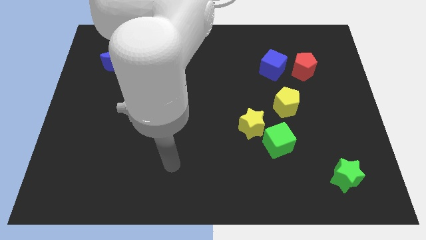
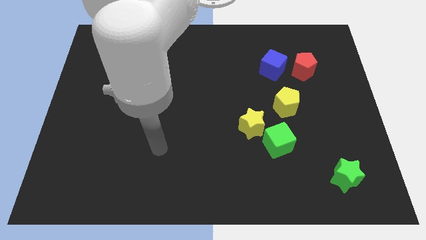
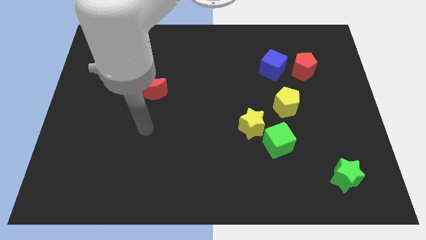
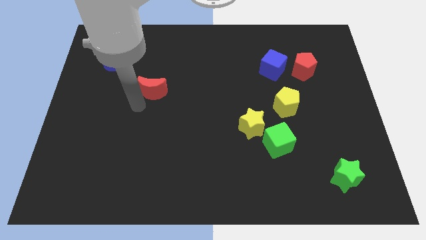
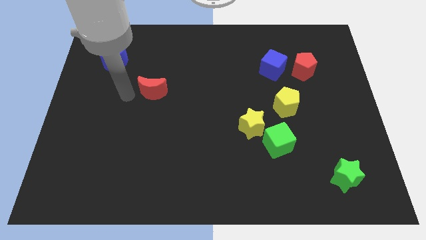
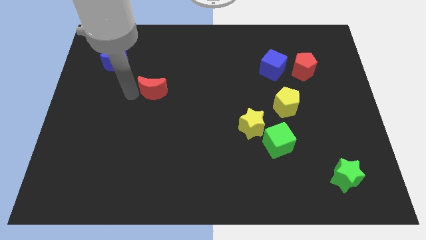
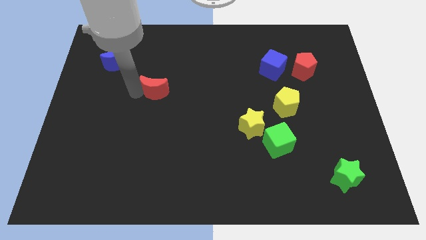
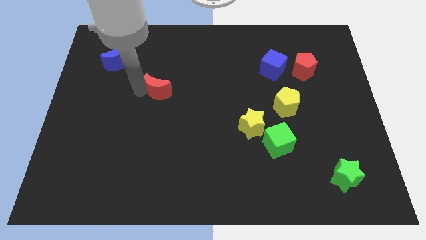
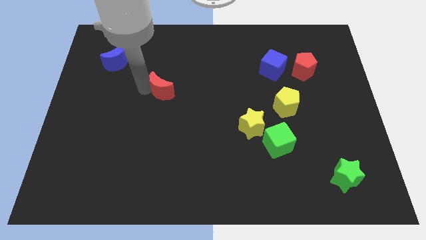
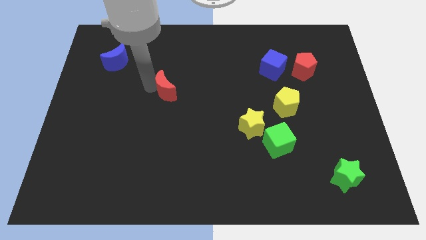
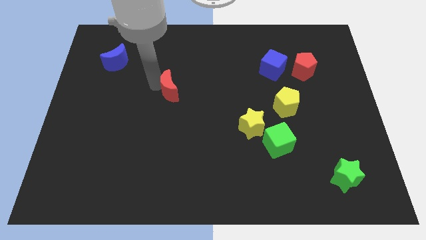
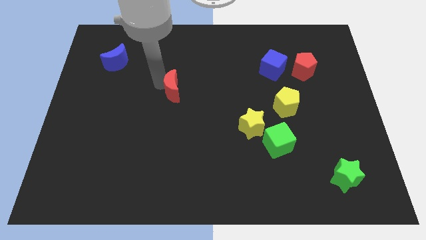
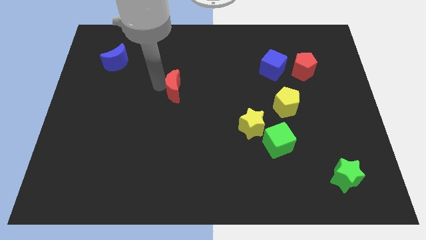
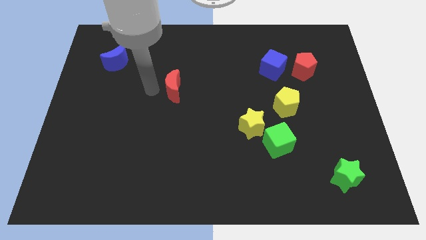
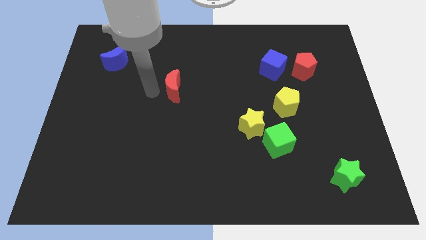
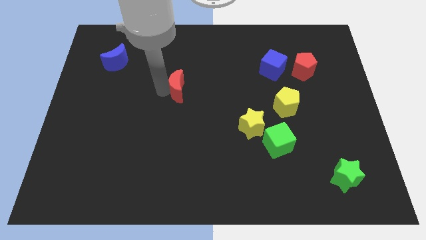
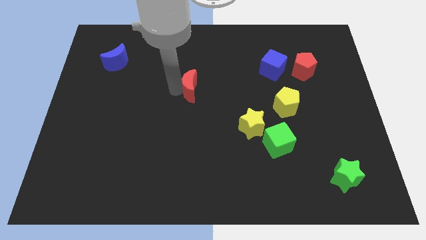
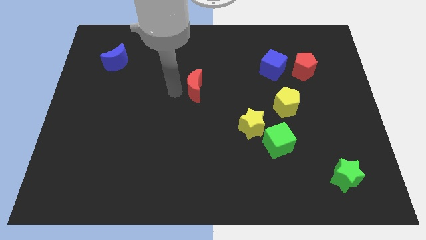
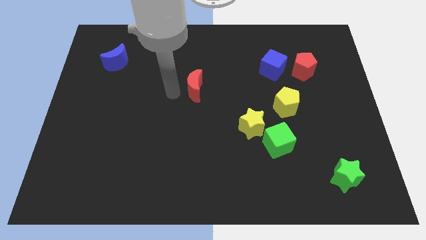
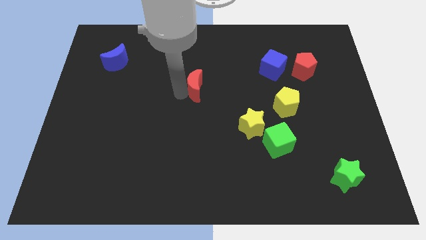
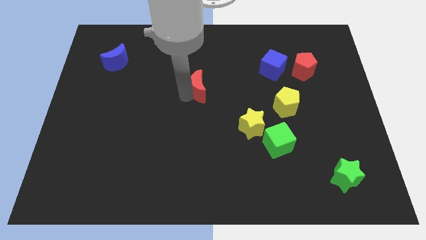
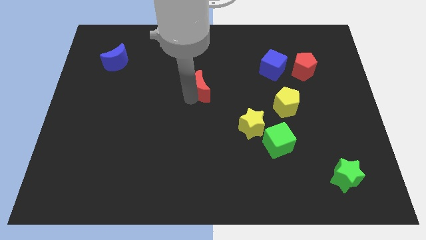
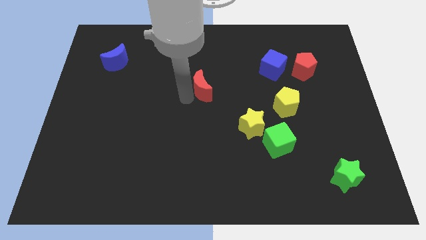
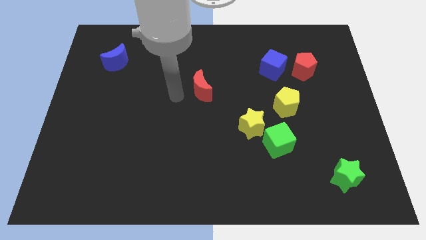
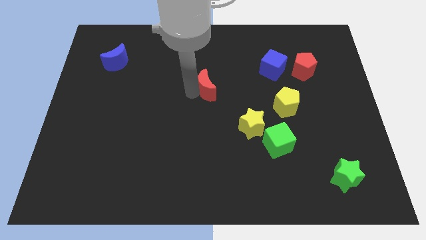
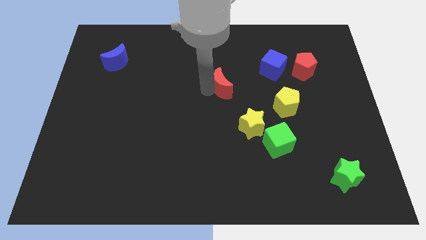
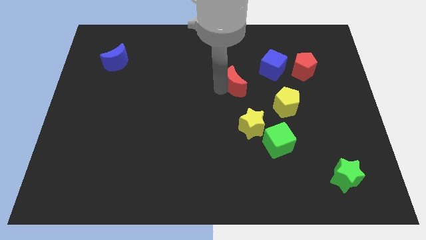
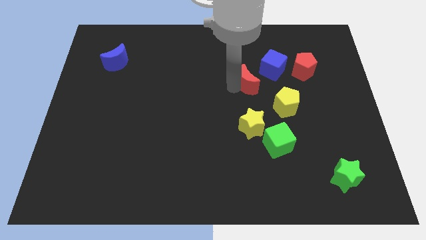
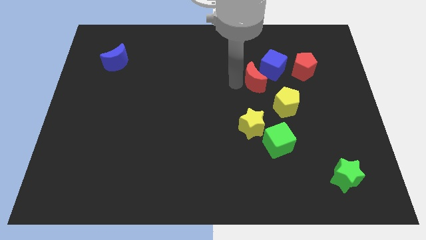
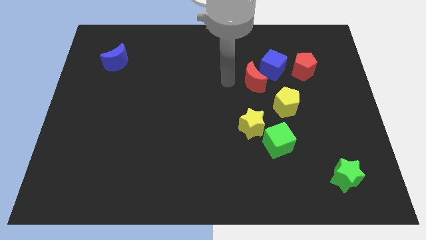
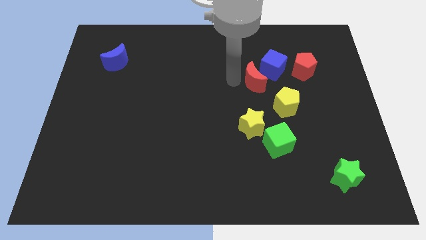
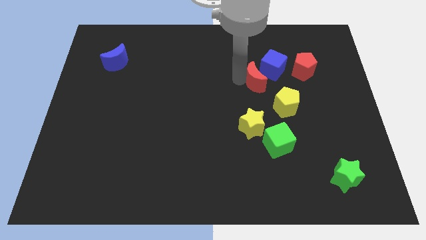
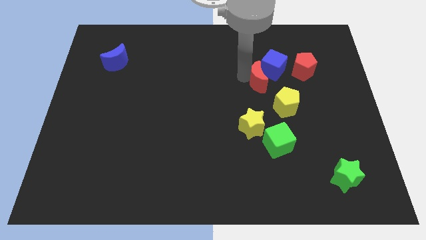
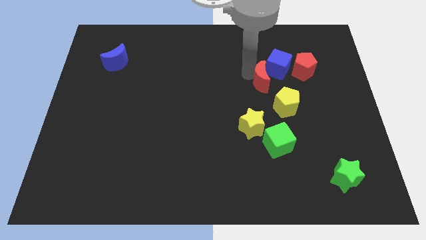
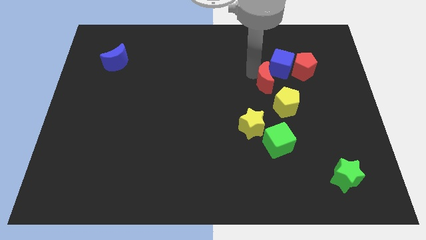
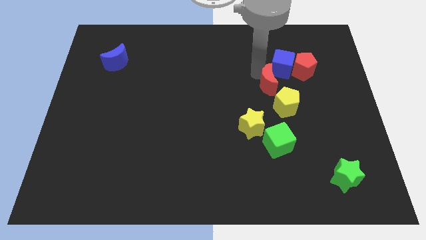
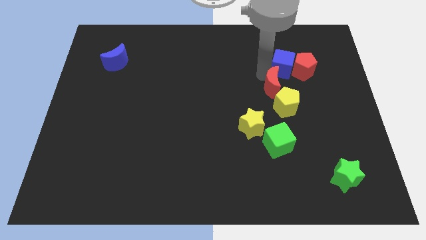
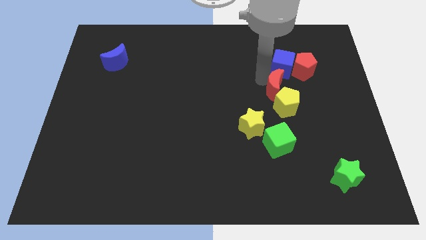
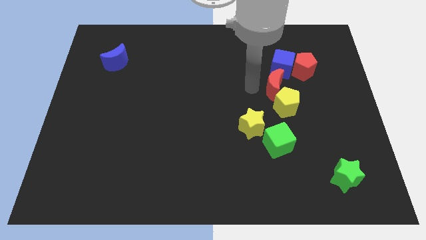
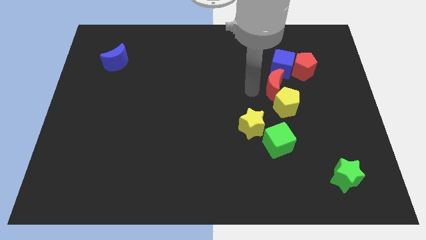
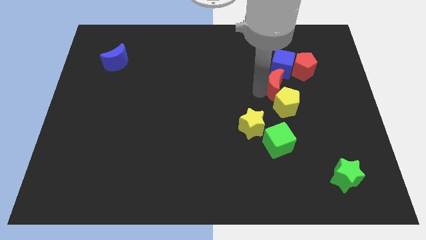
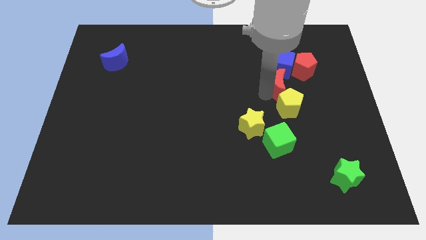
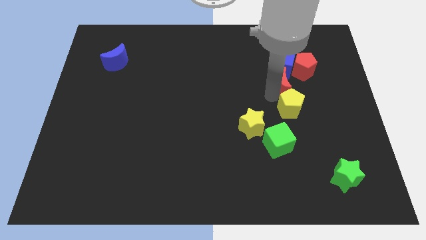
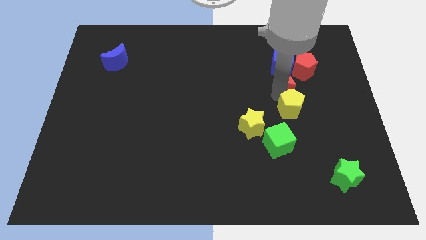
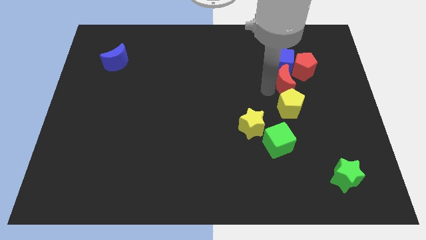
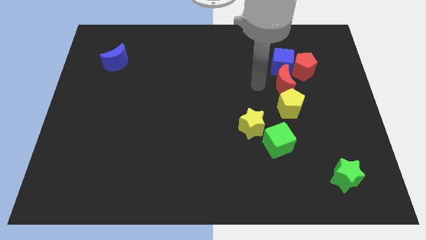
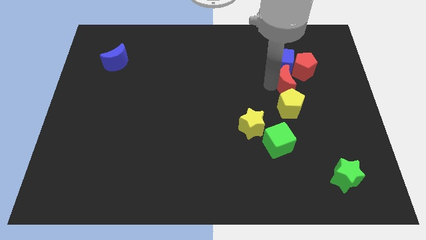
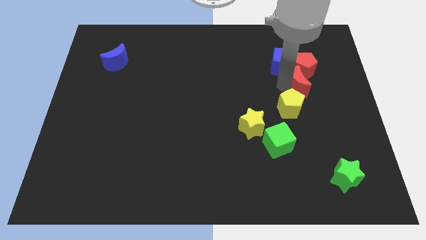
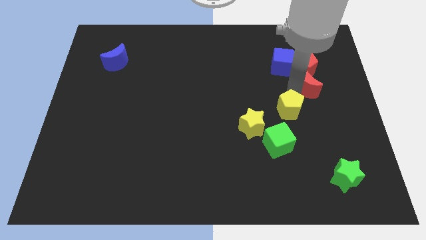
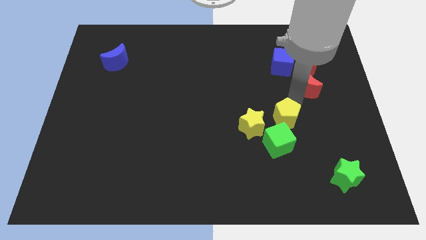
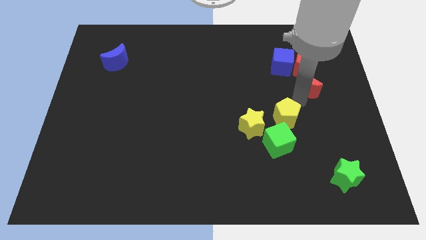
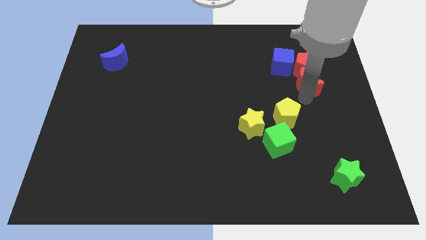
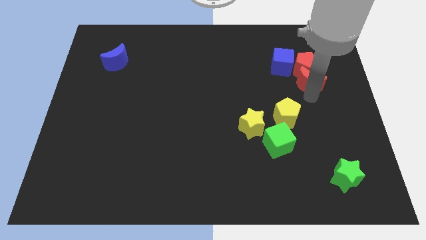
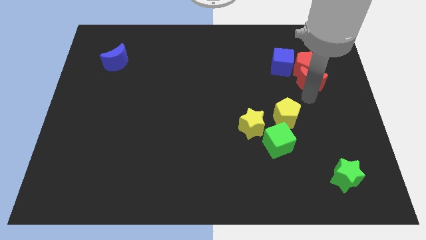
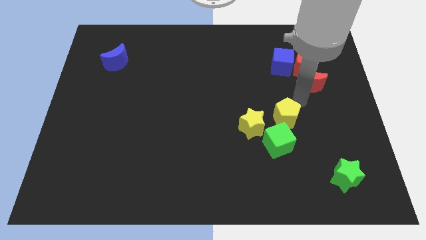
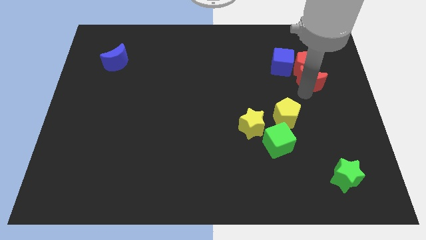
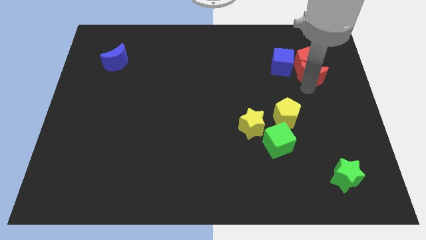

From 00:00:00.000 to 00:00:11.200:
slide the red moon to the right of the blue cube
